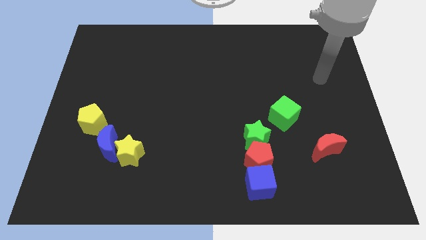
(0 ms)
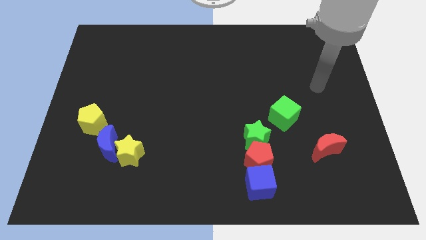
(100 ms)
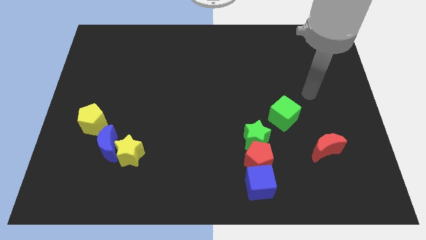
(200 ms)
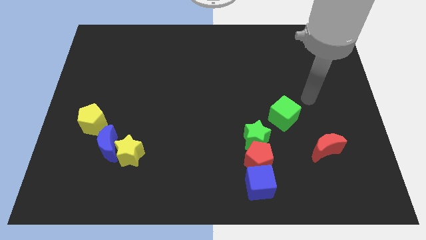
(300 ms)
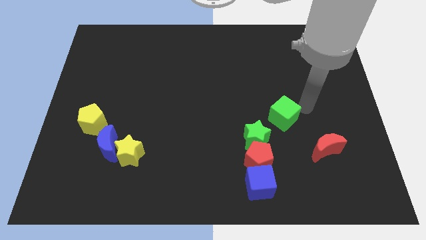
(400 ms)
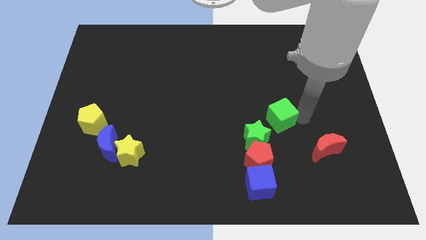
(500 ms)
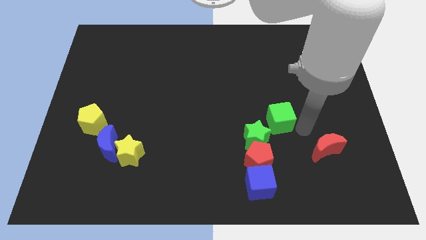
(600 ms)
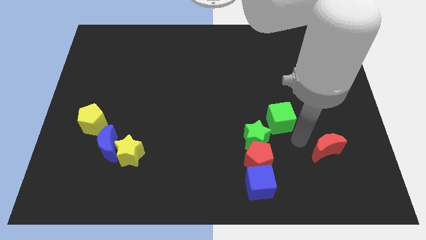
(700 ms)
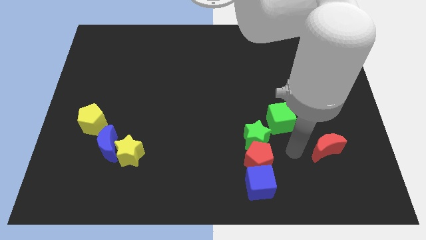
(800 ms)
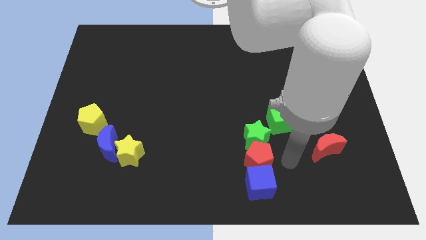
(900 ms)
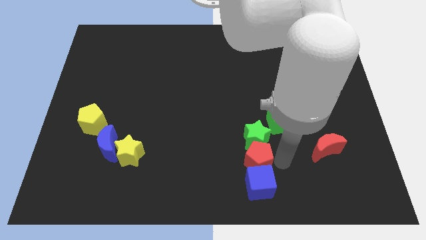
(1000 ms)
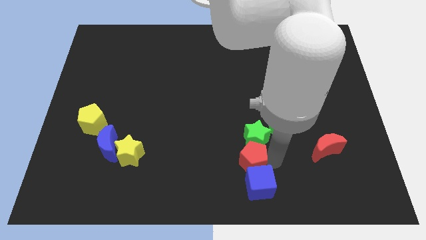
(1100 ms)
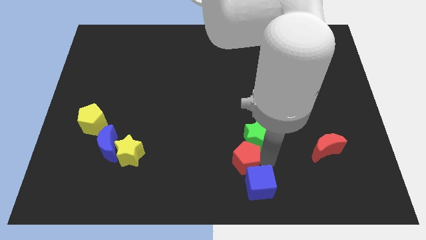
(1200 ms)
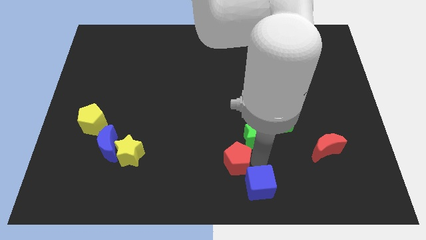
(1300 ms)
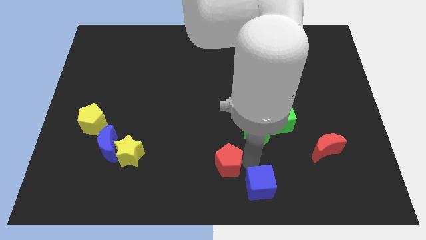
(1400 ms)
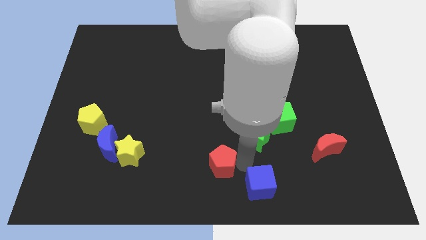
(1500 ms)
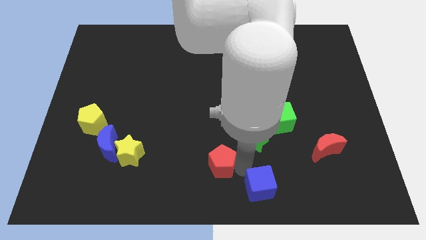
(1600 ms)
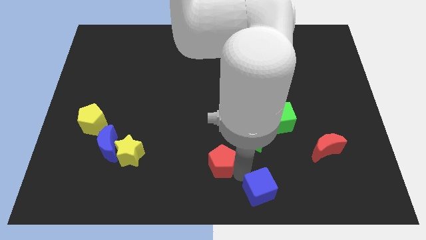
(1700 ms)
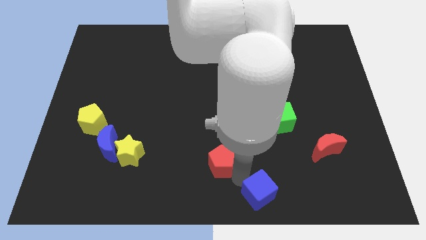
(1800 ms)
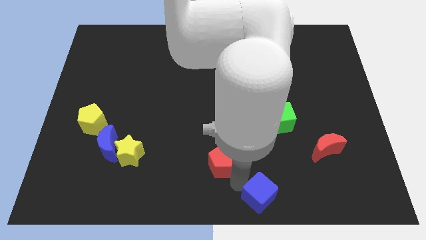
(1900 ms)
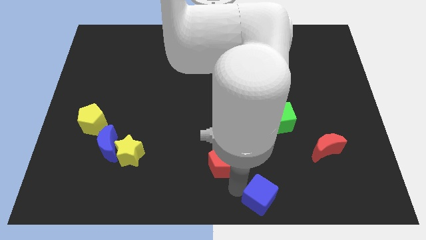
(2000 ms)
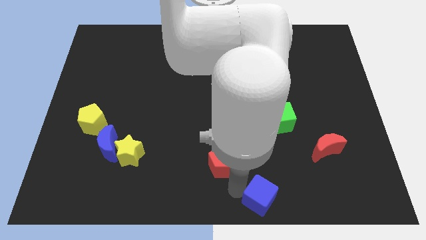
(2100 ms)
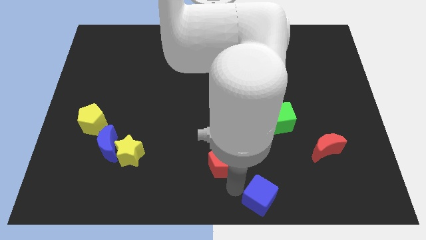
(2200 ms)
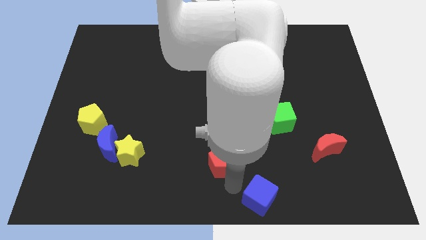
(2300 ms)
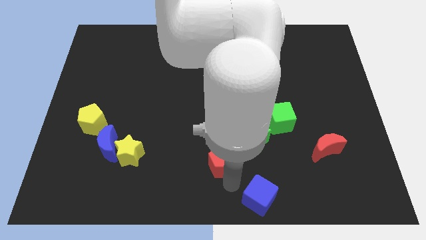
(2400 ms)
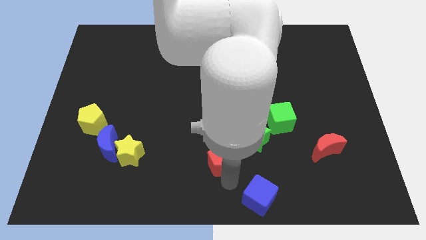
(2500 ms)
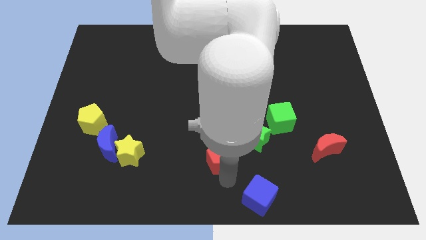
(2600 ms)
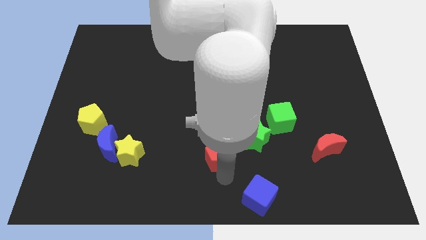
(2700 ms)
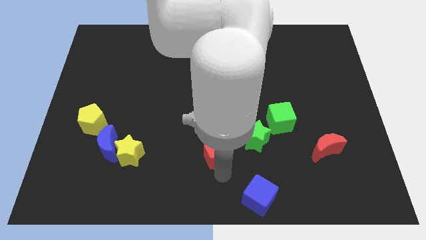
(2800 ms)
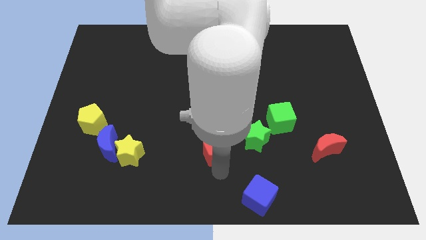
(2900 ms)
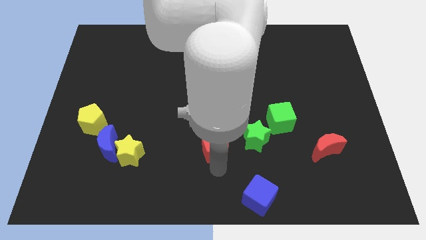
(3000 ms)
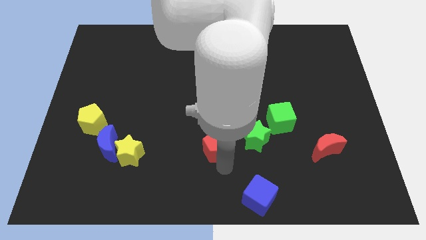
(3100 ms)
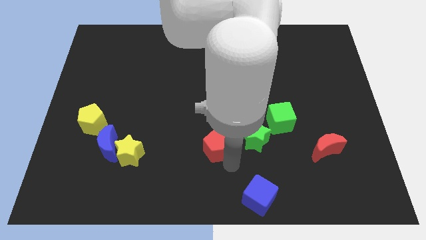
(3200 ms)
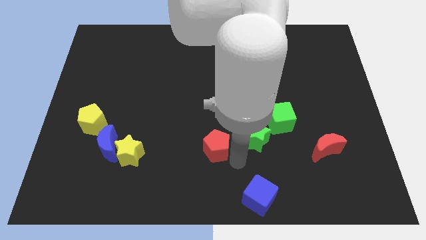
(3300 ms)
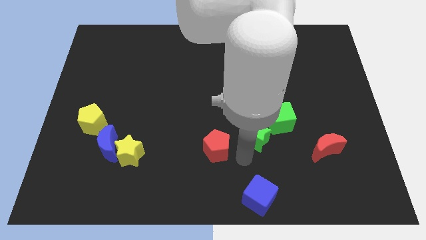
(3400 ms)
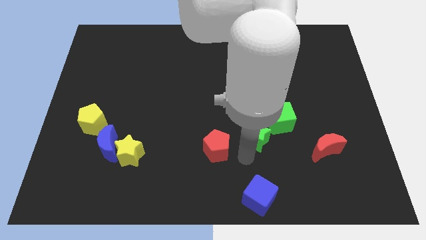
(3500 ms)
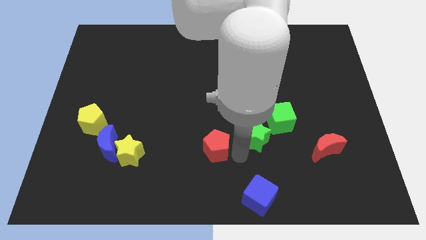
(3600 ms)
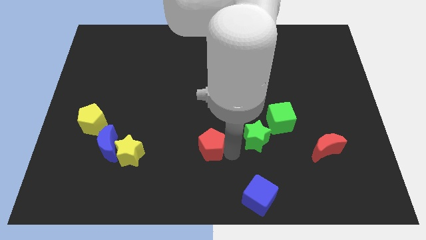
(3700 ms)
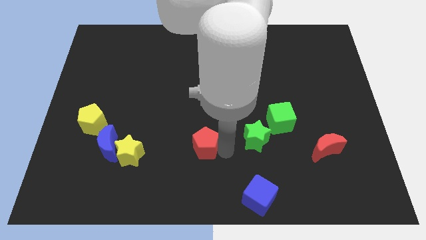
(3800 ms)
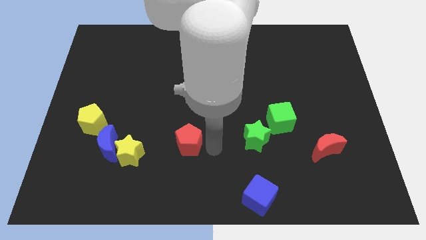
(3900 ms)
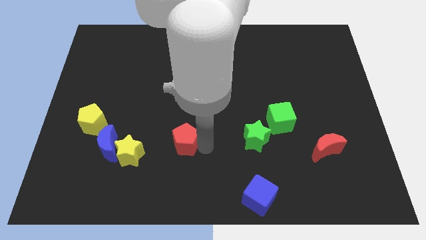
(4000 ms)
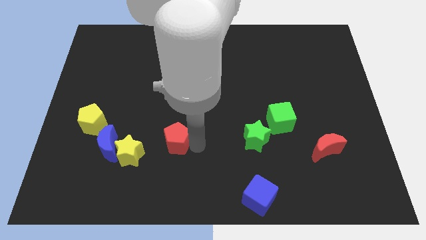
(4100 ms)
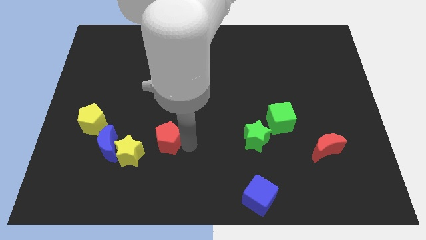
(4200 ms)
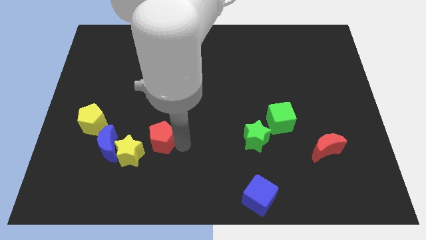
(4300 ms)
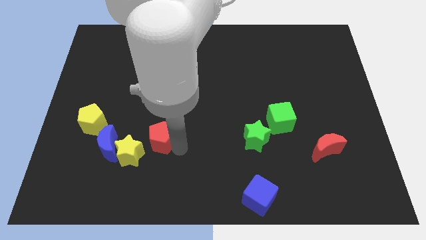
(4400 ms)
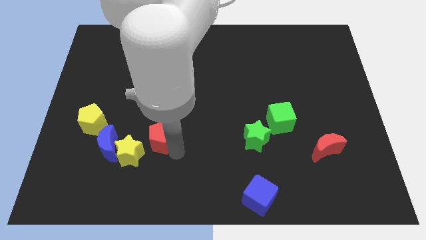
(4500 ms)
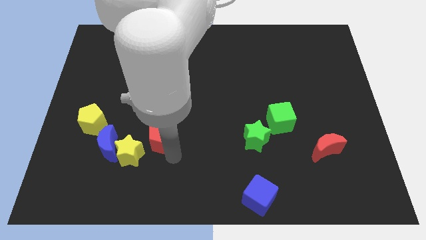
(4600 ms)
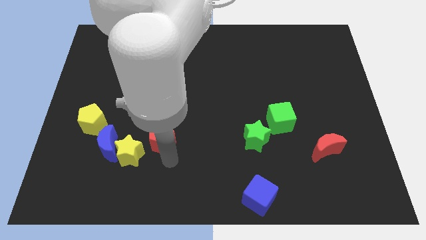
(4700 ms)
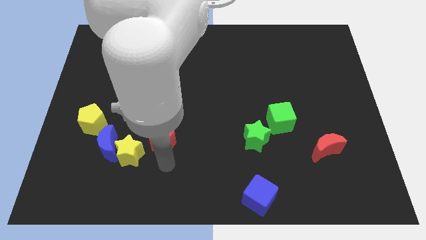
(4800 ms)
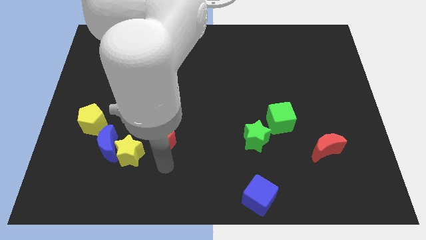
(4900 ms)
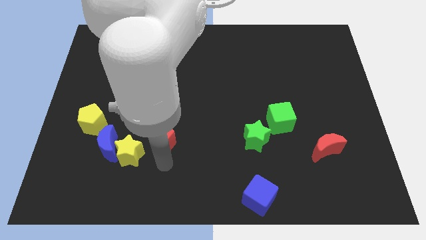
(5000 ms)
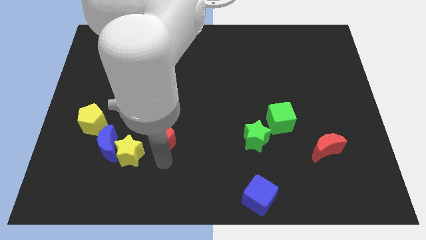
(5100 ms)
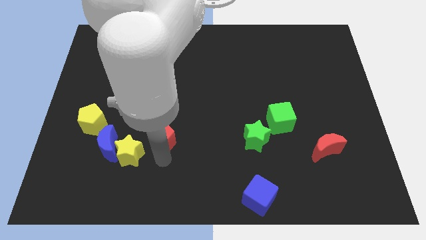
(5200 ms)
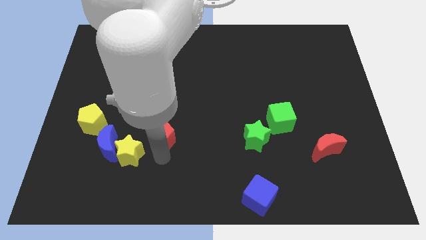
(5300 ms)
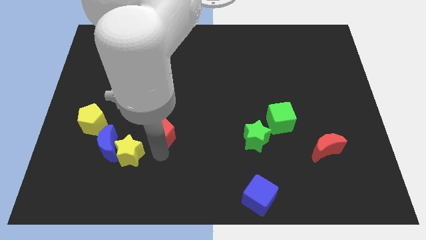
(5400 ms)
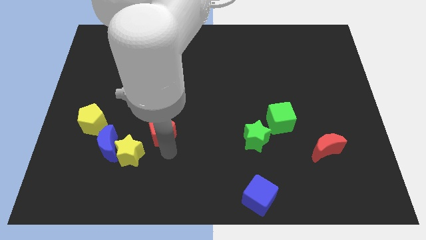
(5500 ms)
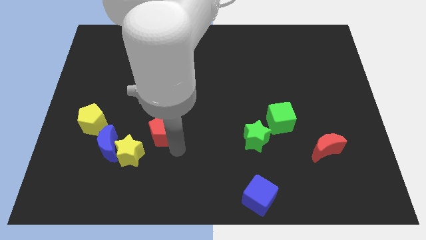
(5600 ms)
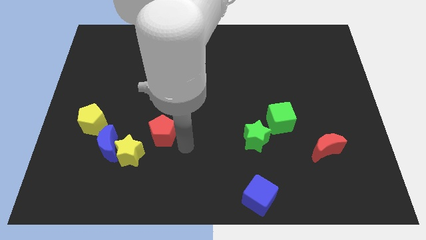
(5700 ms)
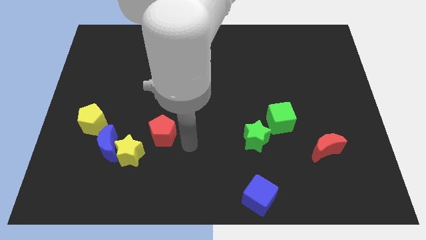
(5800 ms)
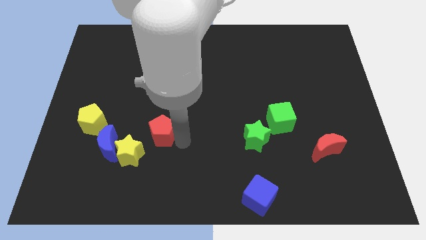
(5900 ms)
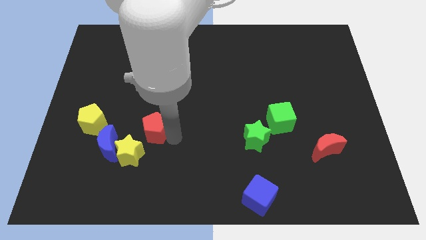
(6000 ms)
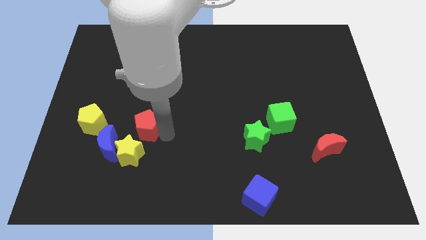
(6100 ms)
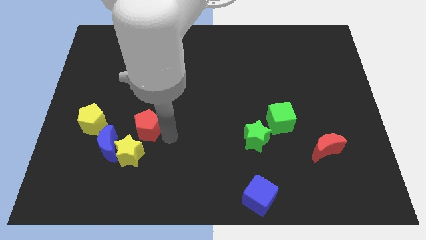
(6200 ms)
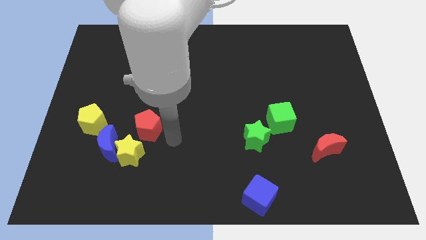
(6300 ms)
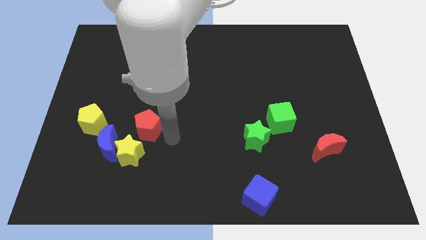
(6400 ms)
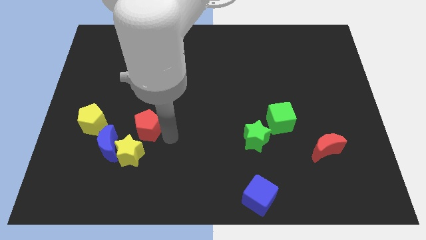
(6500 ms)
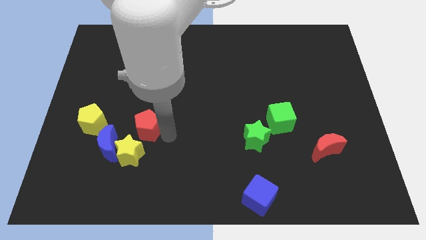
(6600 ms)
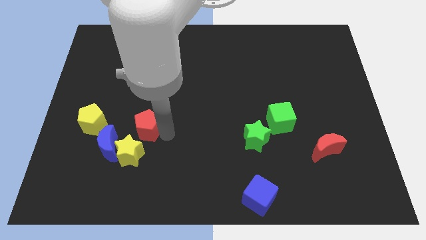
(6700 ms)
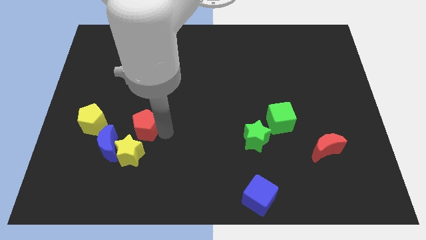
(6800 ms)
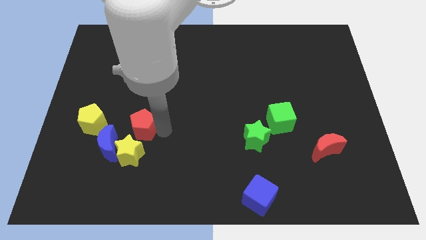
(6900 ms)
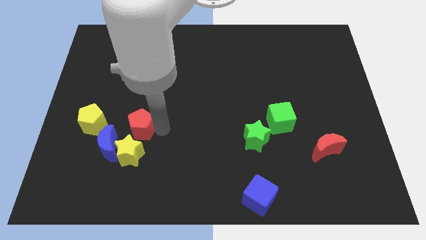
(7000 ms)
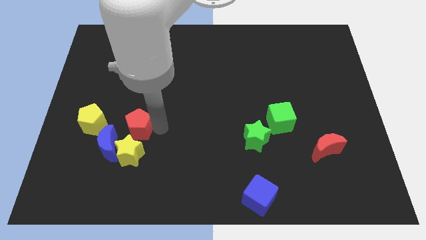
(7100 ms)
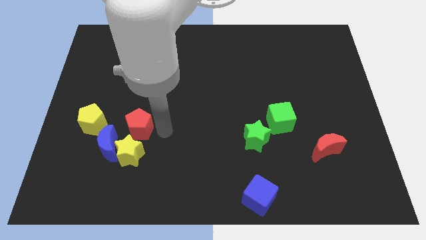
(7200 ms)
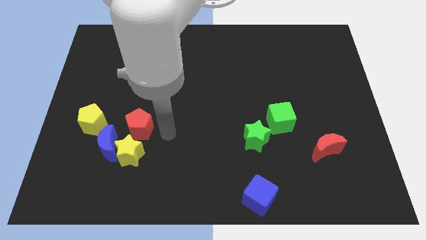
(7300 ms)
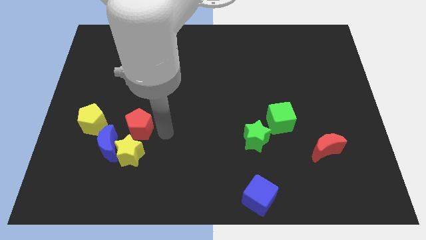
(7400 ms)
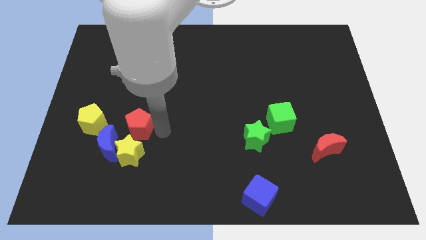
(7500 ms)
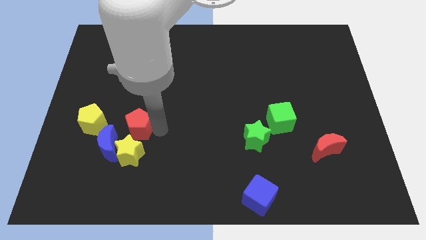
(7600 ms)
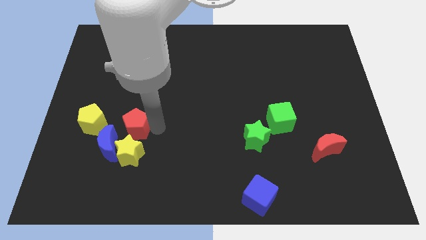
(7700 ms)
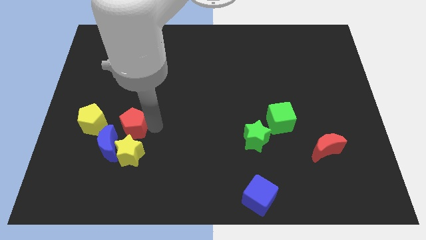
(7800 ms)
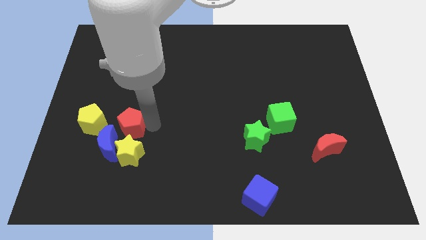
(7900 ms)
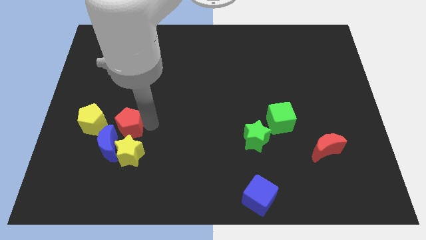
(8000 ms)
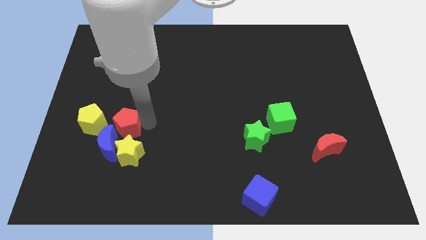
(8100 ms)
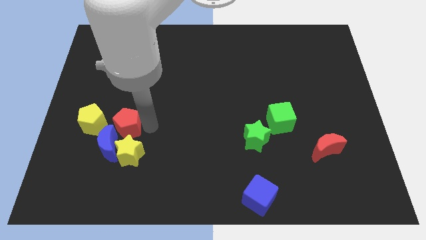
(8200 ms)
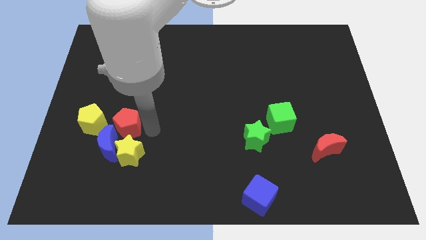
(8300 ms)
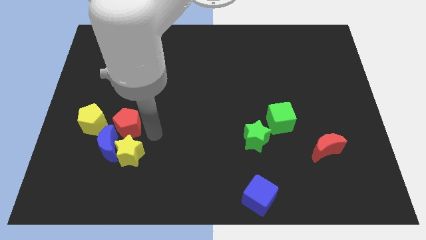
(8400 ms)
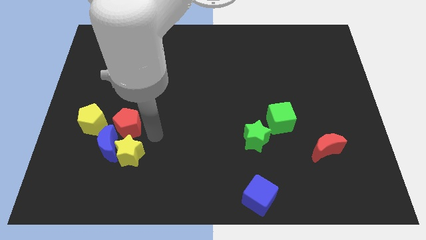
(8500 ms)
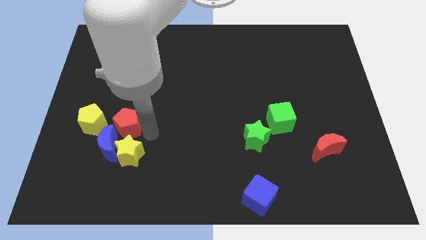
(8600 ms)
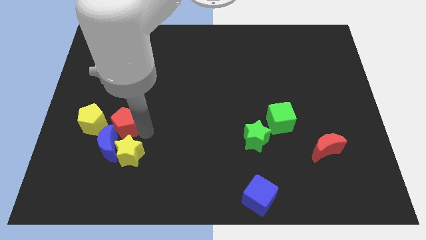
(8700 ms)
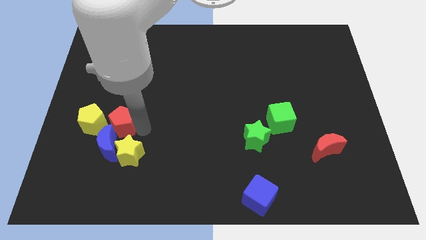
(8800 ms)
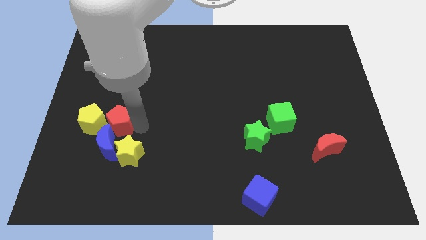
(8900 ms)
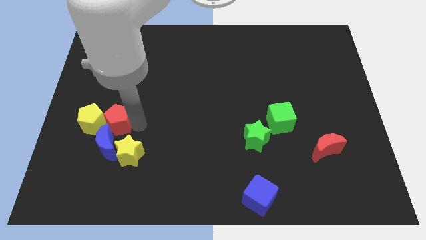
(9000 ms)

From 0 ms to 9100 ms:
move the red pentagon close to the yellow pentagon
